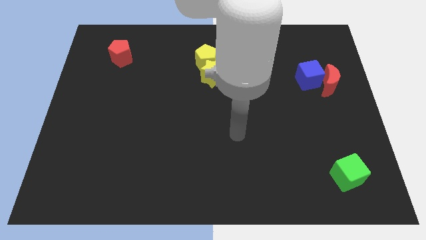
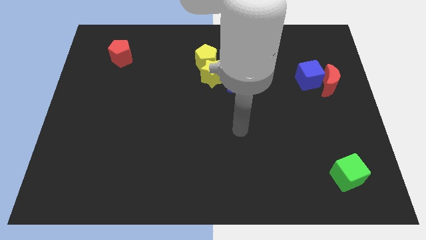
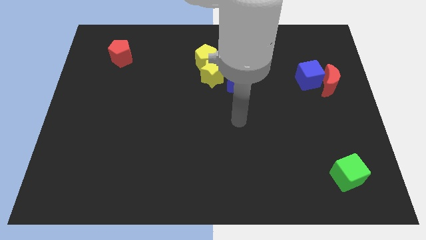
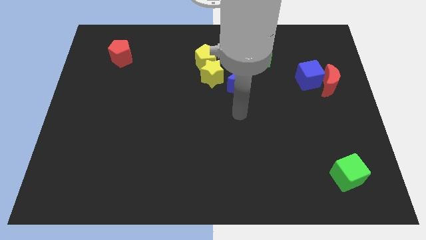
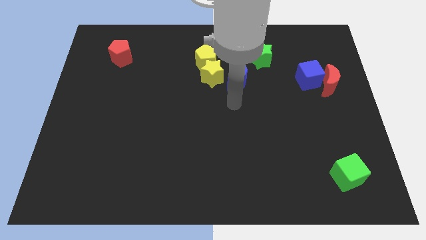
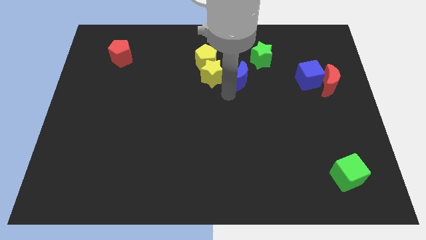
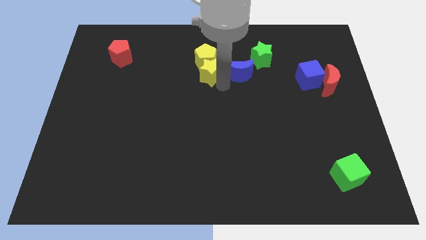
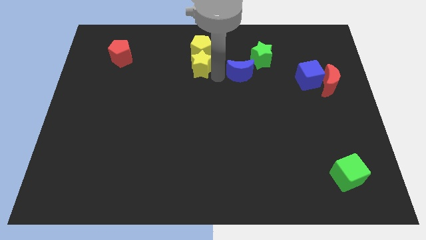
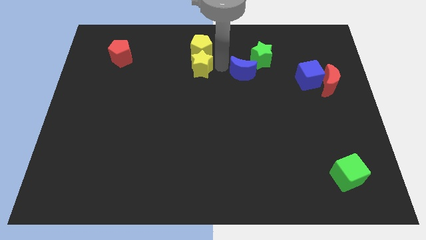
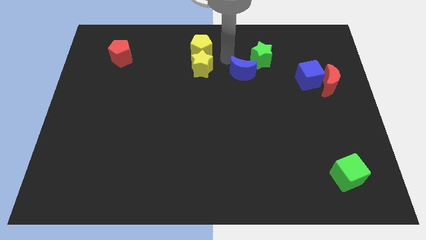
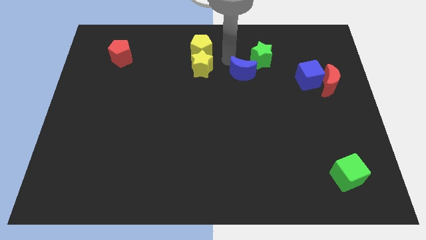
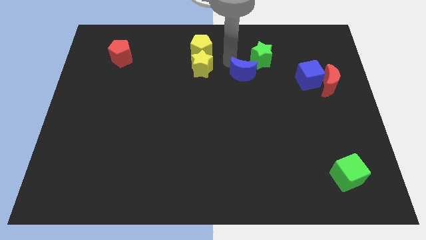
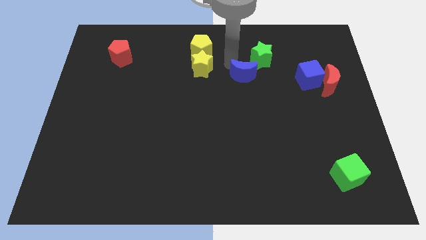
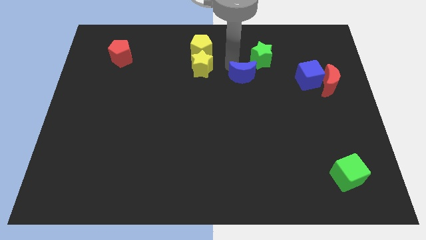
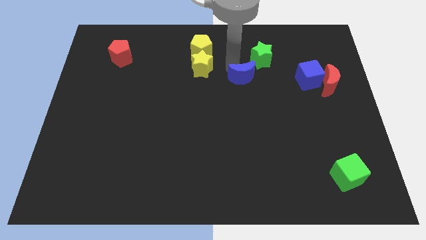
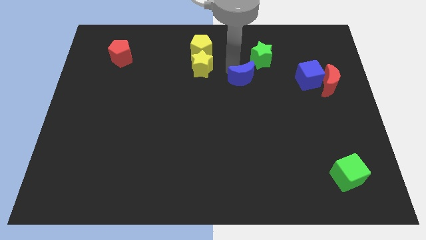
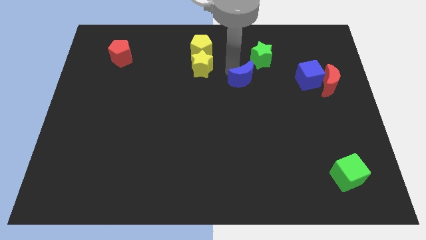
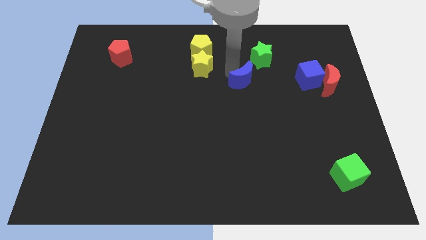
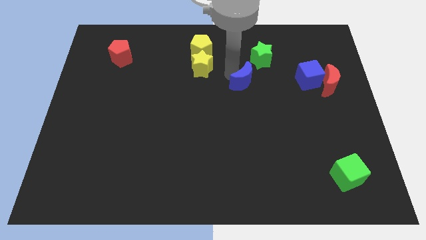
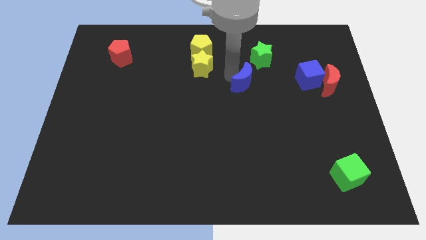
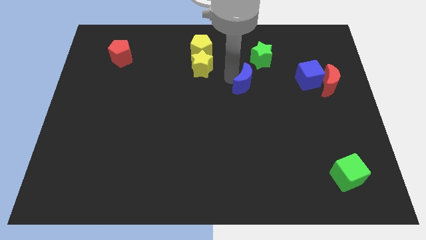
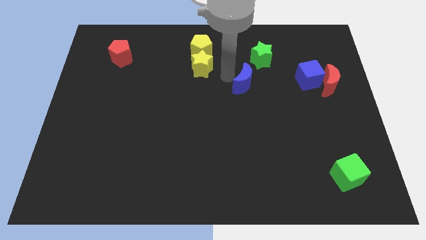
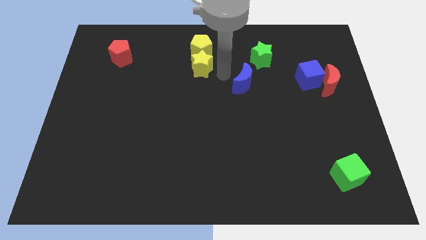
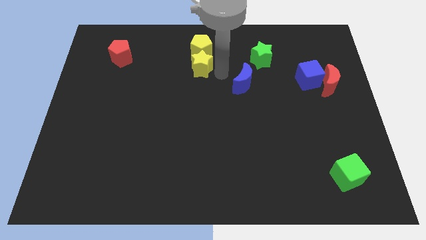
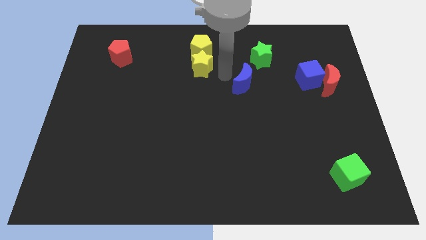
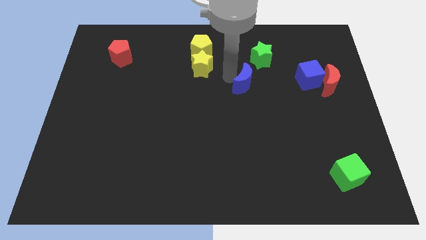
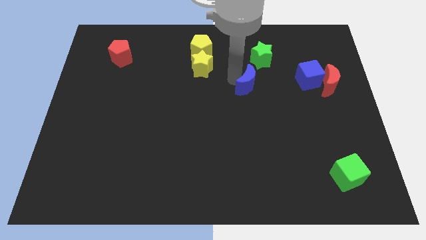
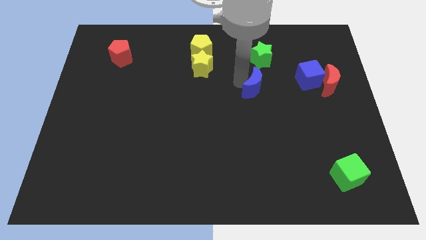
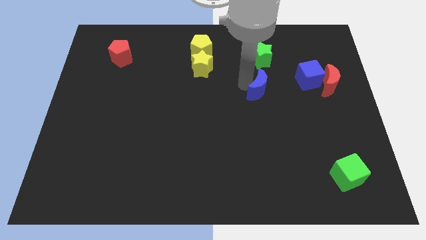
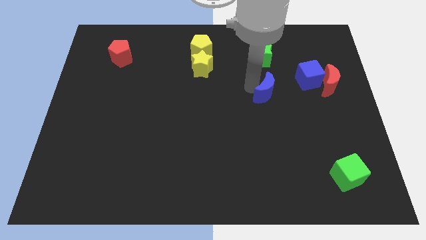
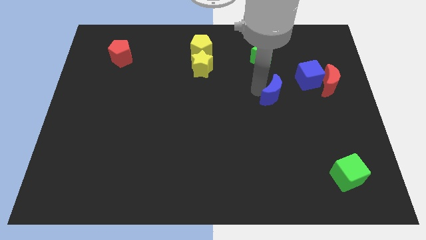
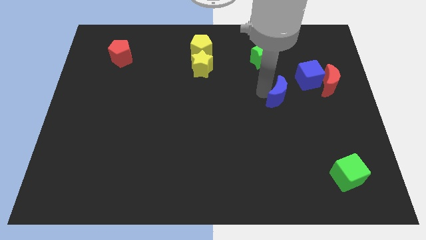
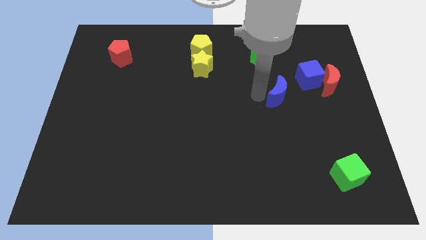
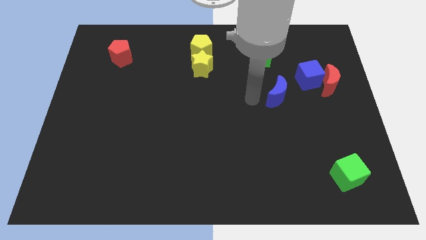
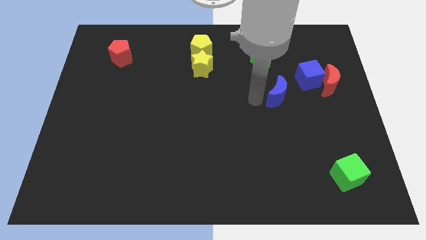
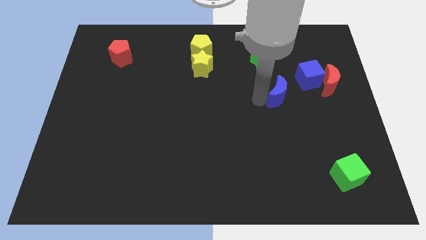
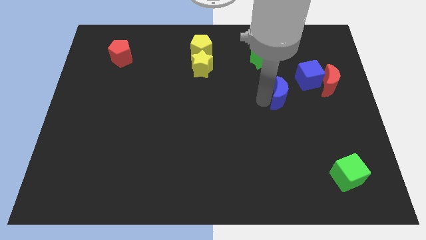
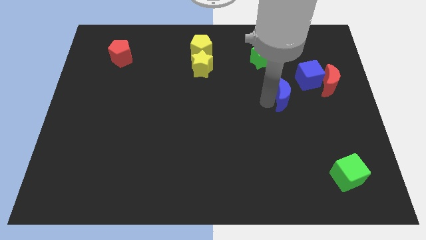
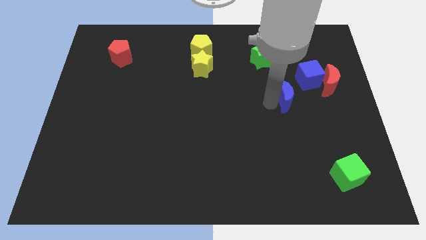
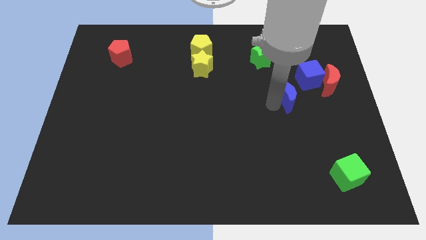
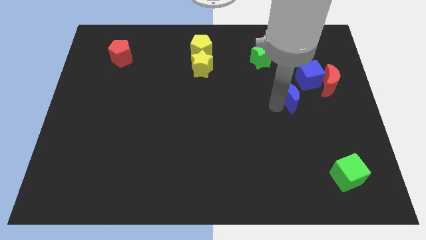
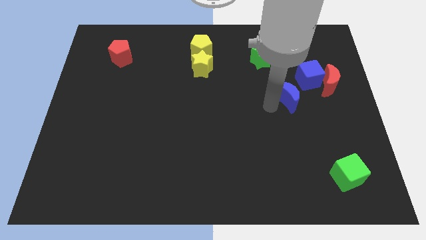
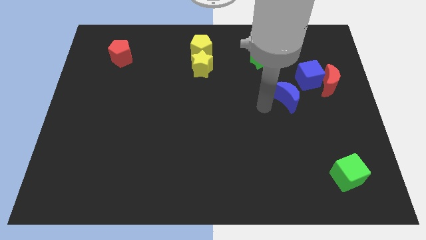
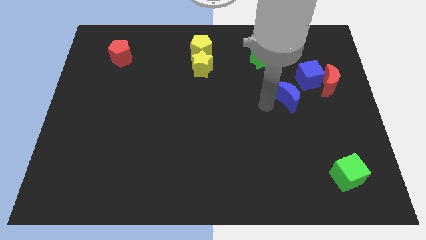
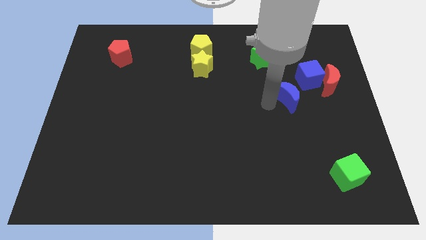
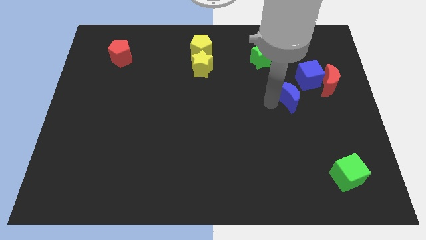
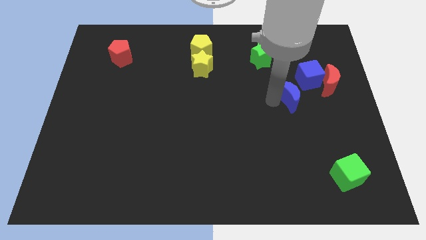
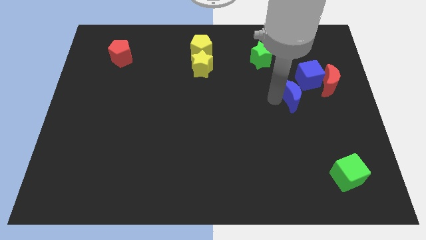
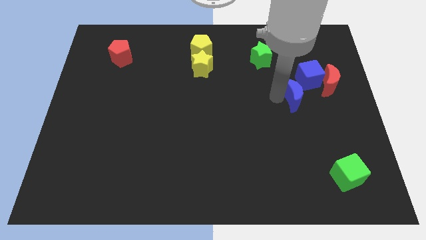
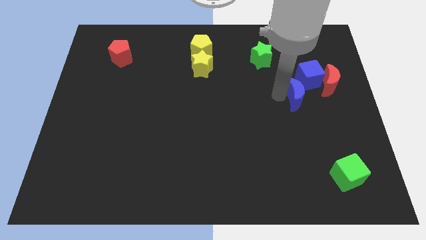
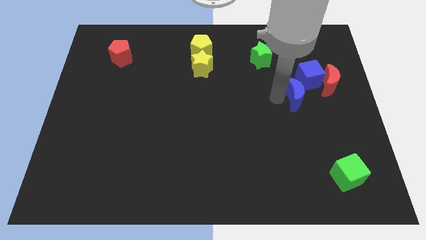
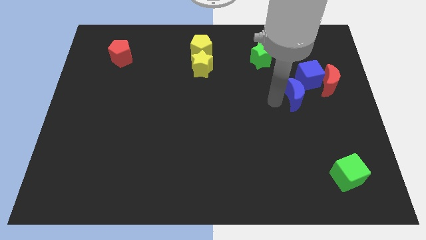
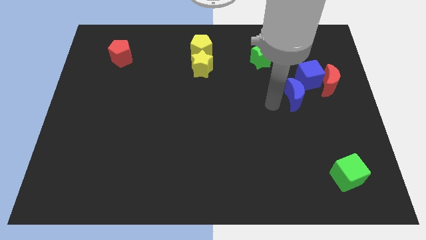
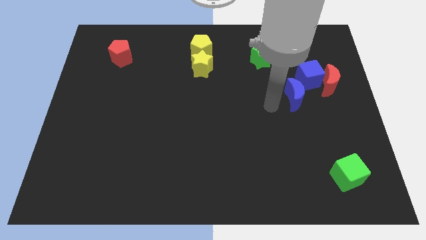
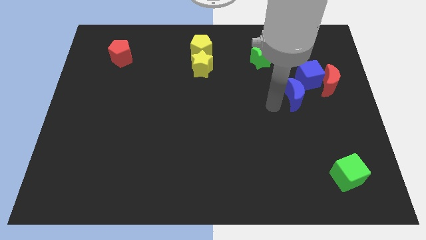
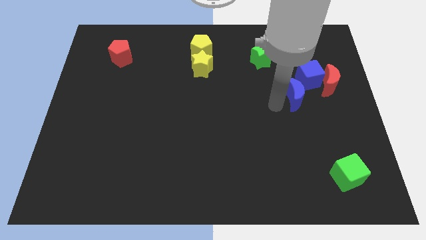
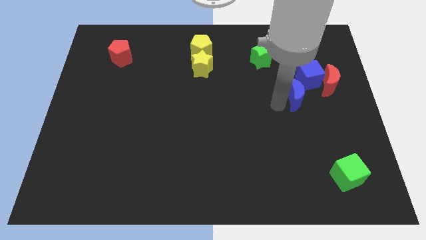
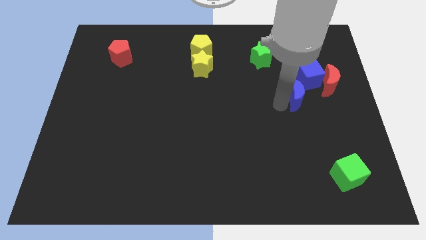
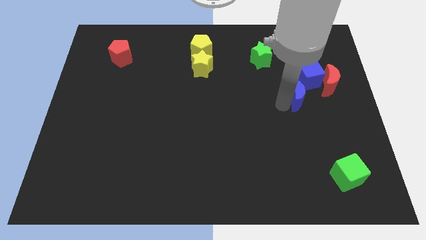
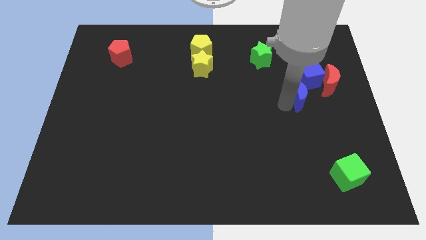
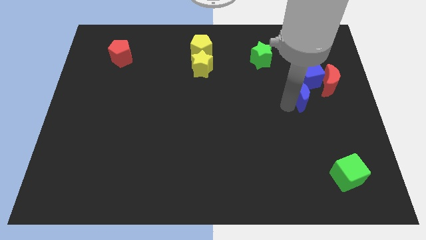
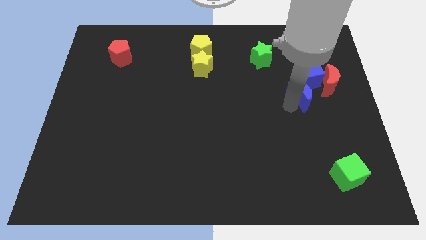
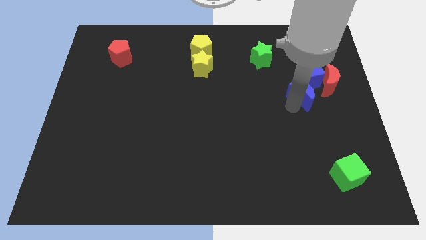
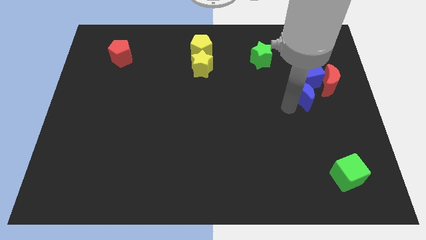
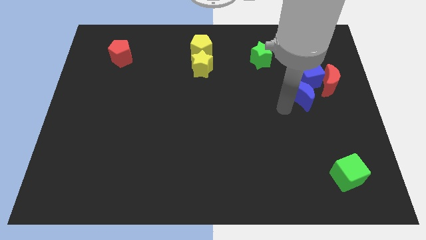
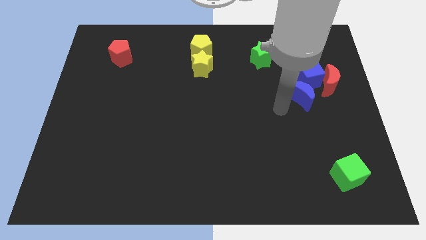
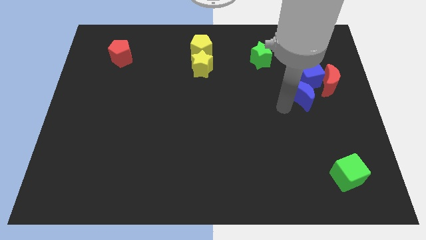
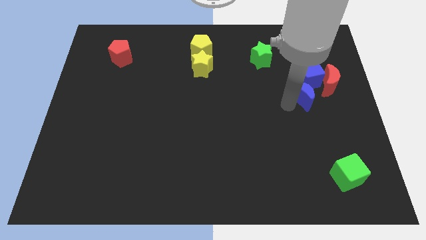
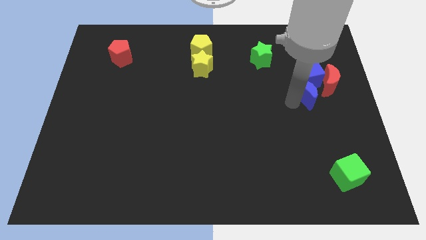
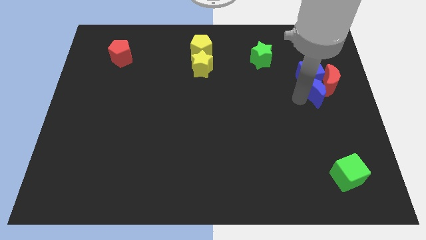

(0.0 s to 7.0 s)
move the blue moon next to the red moon
